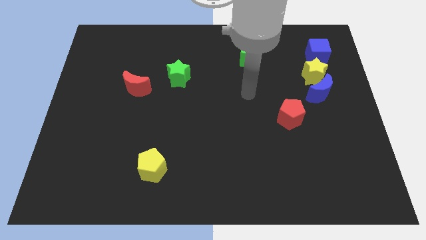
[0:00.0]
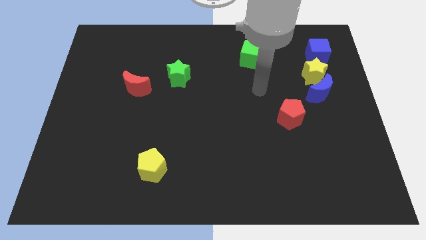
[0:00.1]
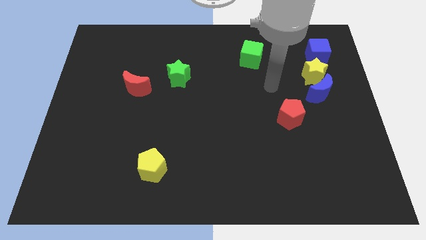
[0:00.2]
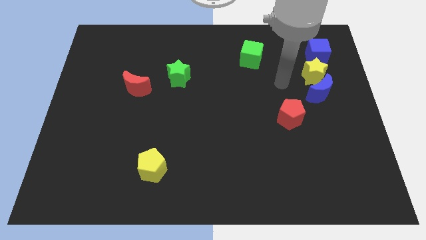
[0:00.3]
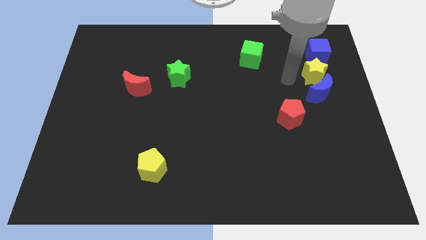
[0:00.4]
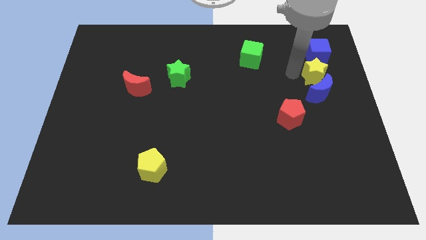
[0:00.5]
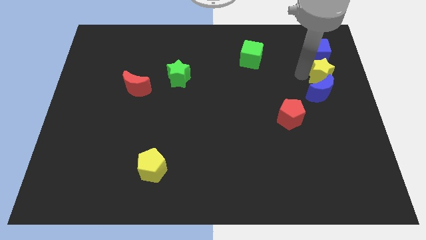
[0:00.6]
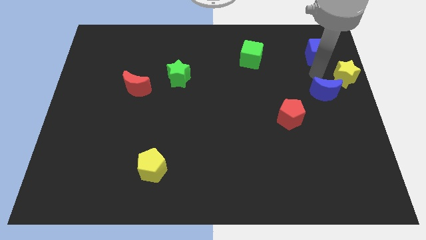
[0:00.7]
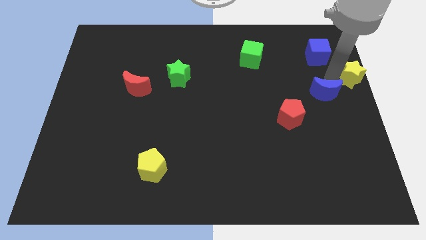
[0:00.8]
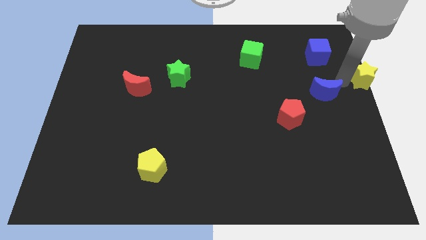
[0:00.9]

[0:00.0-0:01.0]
move the blue moon away from the yellow star

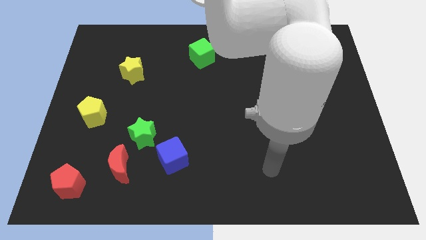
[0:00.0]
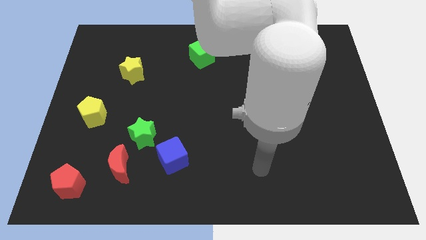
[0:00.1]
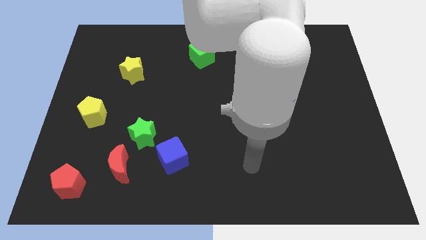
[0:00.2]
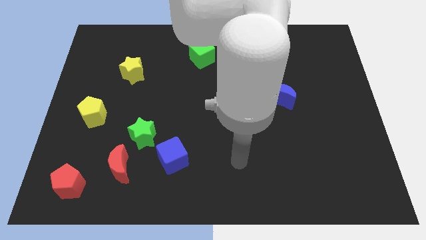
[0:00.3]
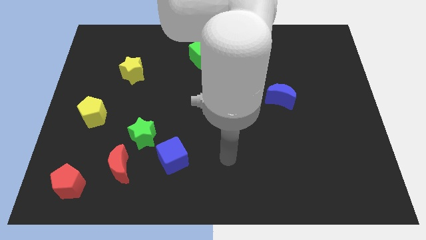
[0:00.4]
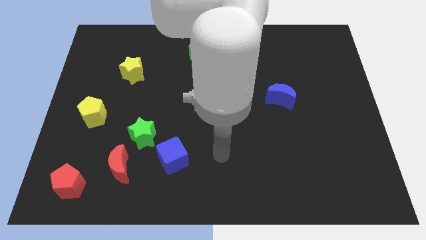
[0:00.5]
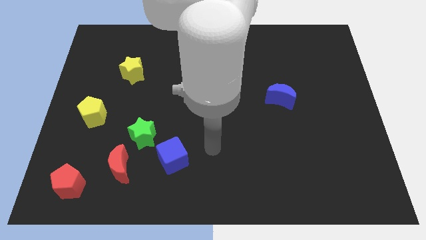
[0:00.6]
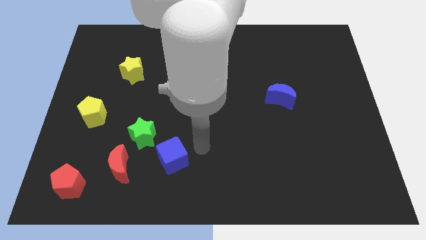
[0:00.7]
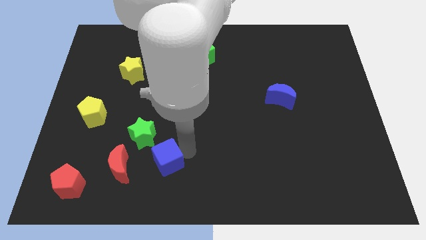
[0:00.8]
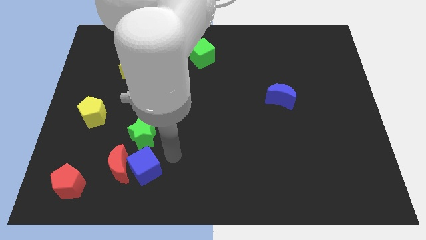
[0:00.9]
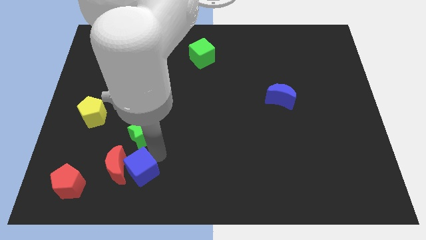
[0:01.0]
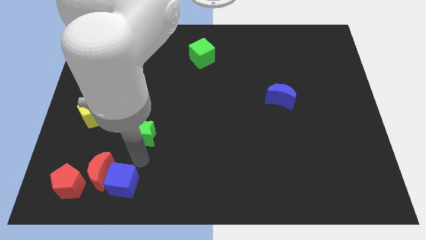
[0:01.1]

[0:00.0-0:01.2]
move the green star away from the red moon and blue cube

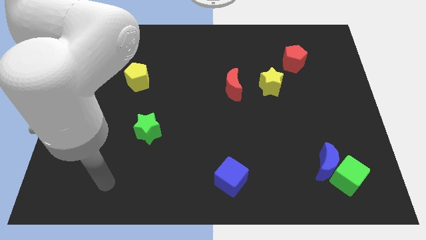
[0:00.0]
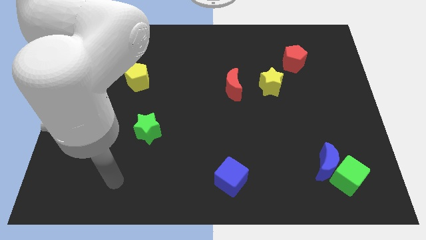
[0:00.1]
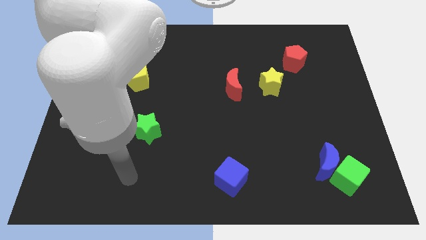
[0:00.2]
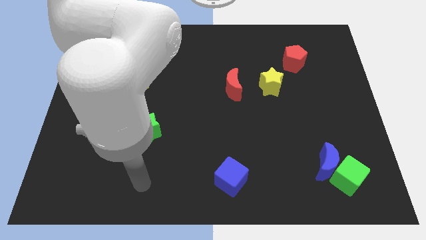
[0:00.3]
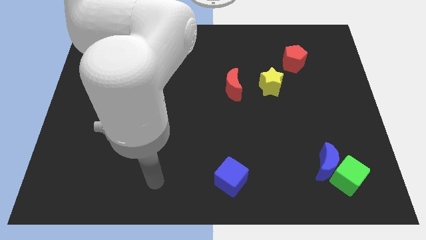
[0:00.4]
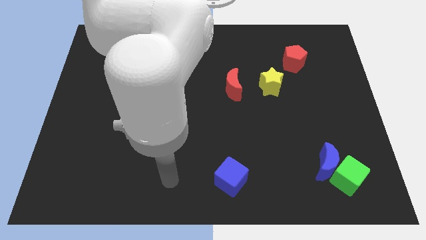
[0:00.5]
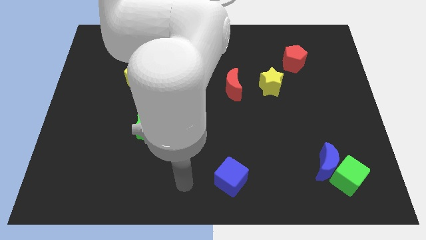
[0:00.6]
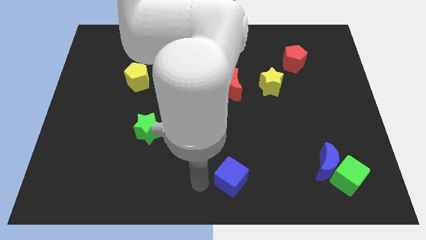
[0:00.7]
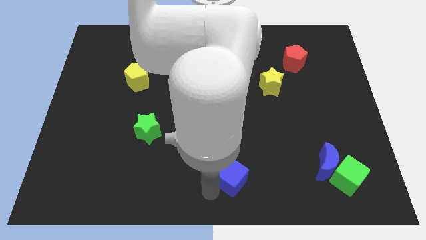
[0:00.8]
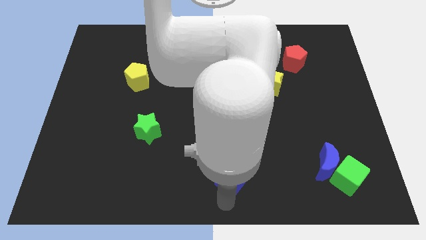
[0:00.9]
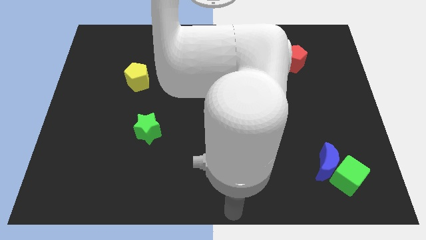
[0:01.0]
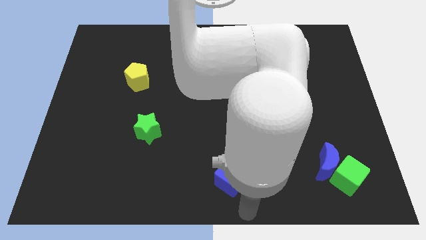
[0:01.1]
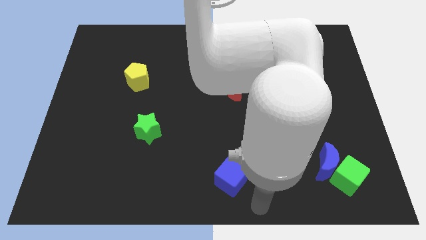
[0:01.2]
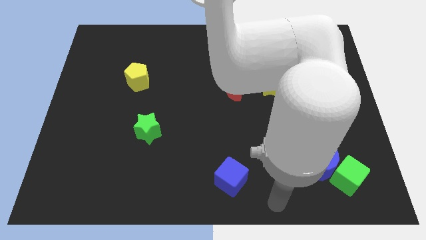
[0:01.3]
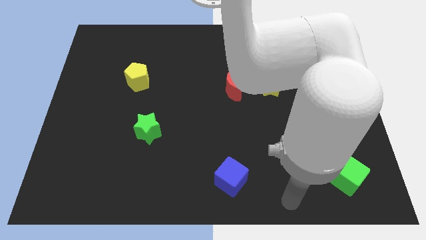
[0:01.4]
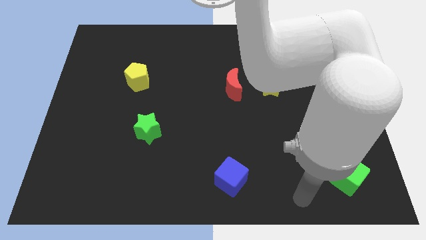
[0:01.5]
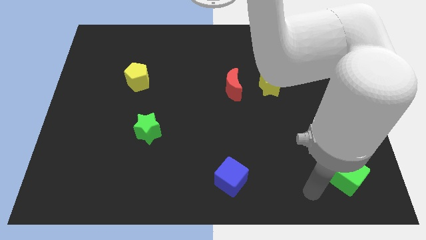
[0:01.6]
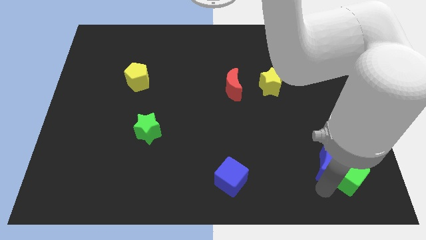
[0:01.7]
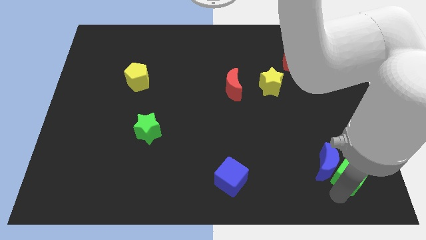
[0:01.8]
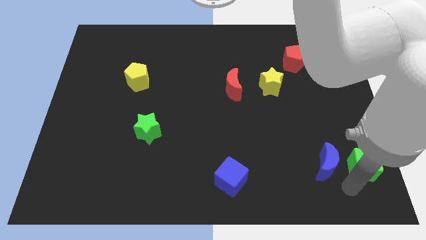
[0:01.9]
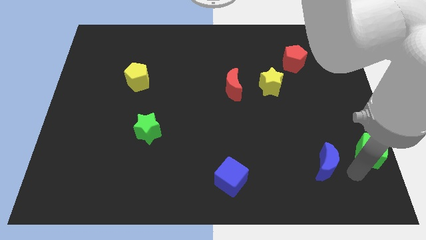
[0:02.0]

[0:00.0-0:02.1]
move the blue moon away from the green cube

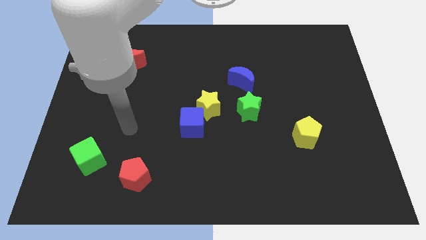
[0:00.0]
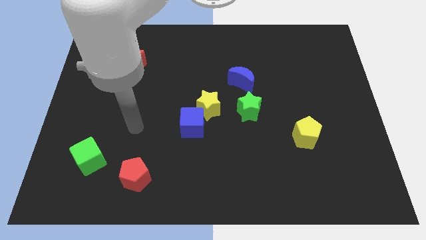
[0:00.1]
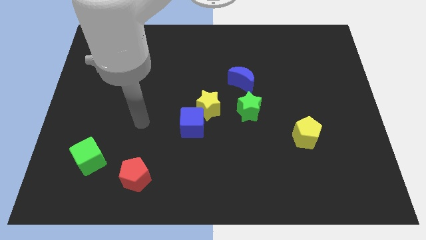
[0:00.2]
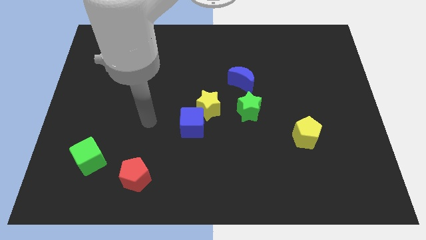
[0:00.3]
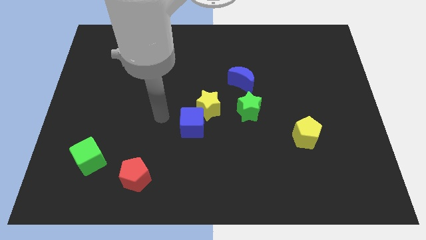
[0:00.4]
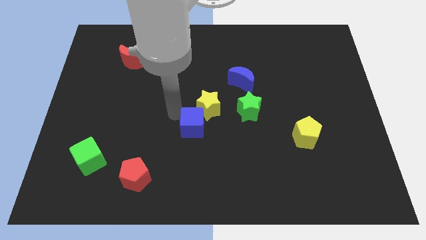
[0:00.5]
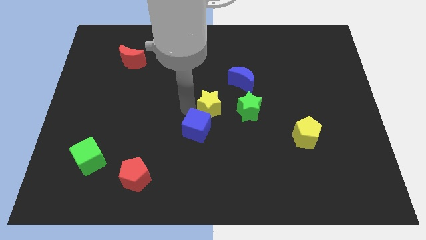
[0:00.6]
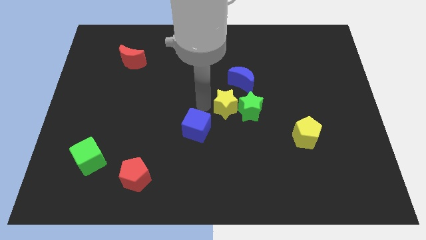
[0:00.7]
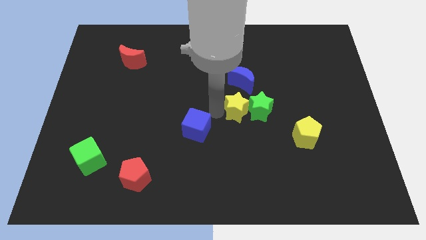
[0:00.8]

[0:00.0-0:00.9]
move the blue cube away from the yellow star

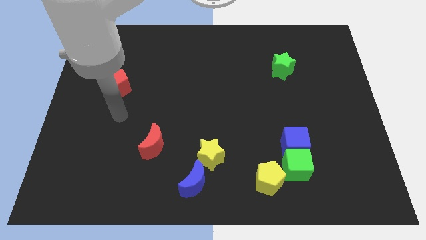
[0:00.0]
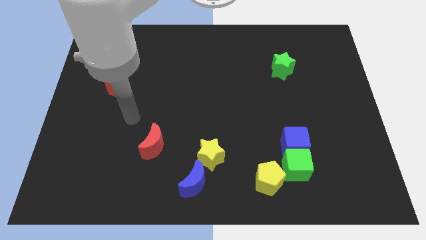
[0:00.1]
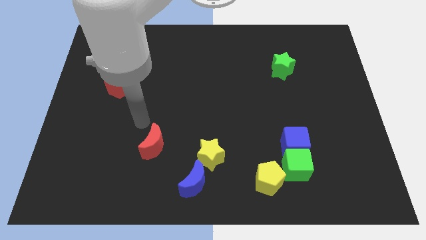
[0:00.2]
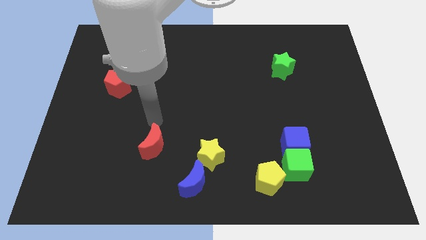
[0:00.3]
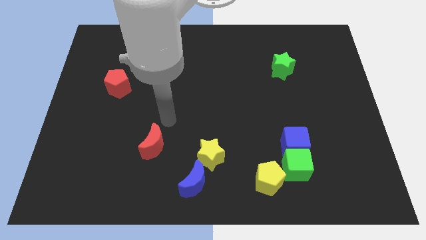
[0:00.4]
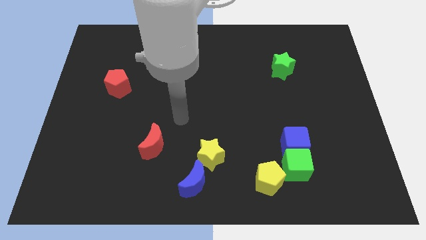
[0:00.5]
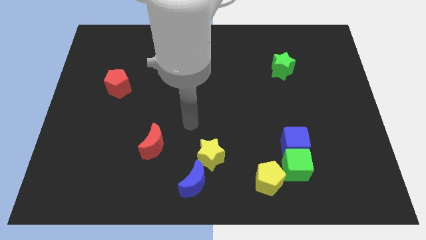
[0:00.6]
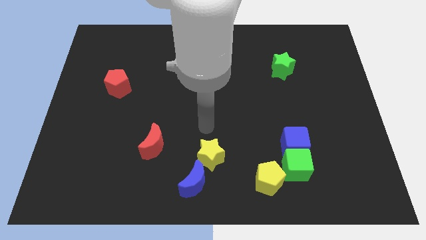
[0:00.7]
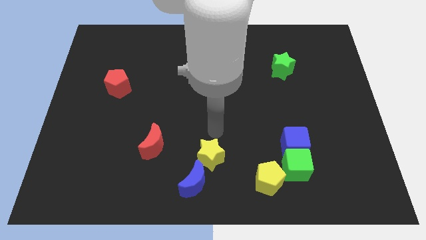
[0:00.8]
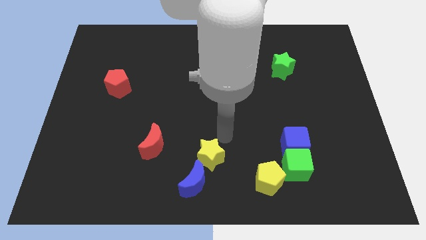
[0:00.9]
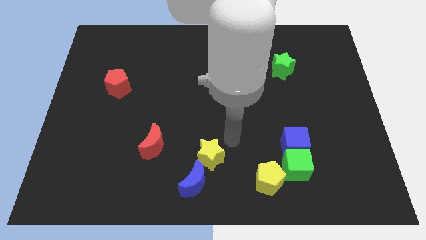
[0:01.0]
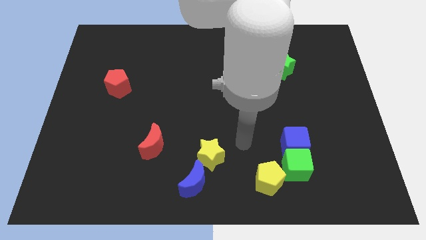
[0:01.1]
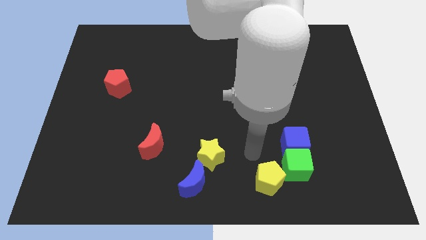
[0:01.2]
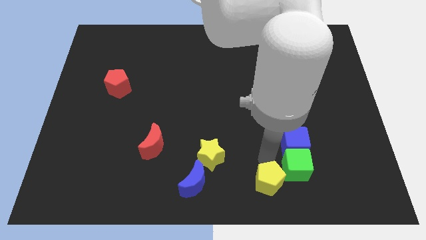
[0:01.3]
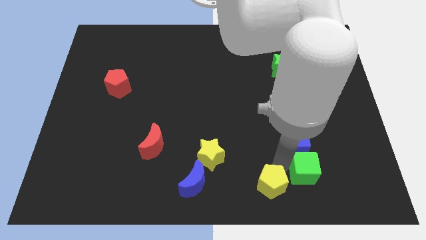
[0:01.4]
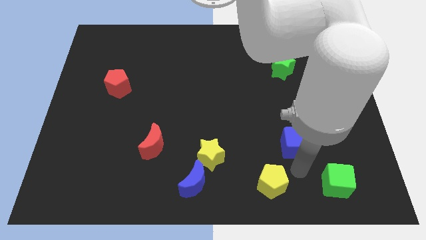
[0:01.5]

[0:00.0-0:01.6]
pull the blue cube apart from the green cube

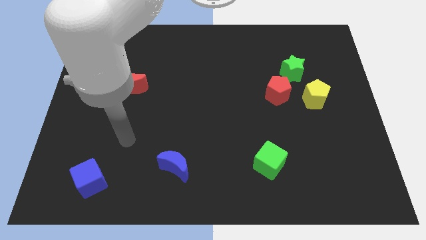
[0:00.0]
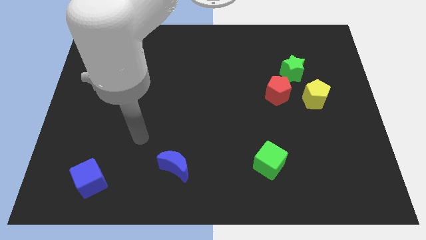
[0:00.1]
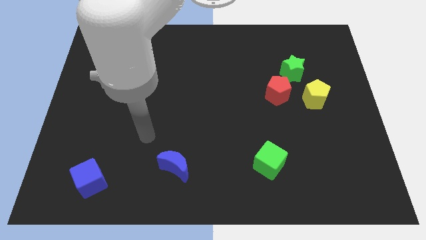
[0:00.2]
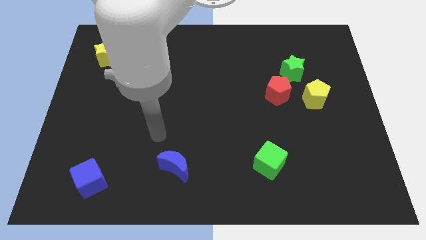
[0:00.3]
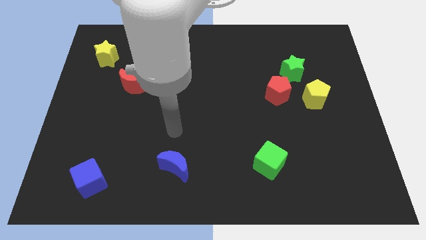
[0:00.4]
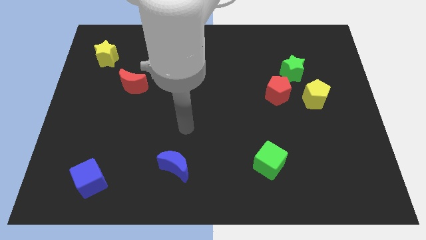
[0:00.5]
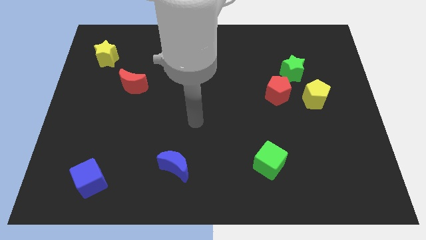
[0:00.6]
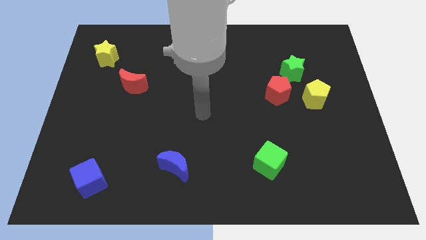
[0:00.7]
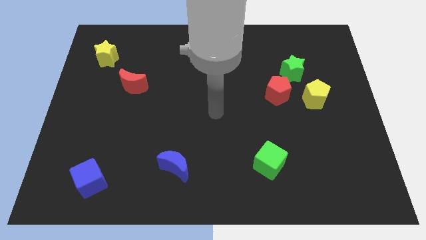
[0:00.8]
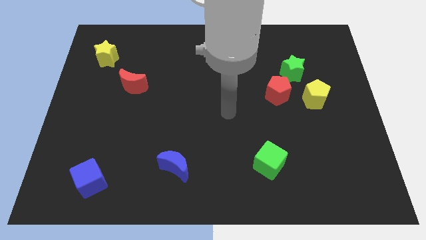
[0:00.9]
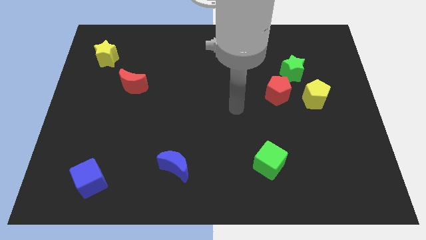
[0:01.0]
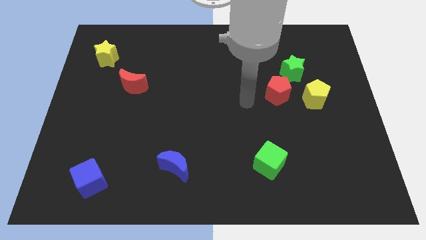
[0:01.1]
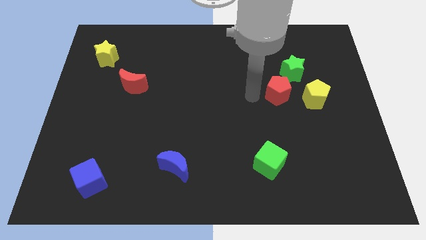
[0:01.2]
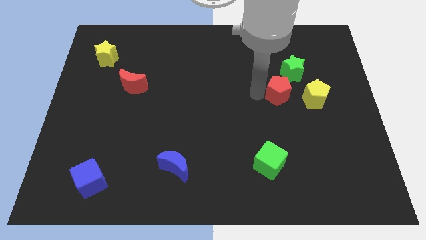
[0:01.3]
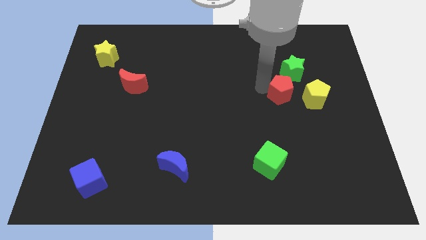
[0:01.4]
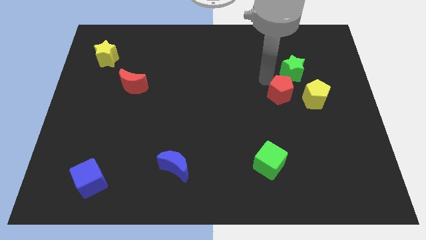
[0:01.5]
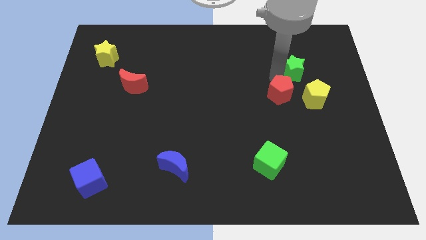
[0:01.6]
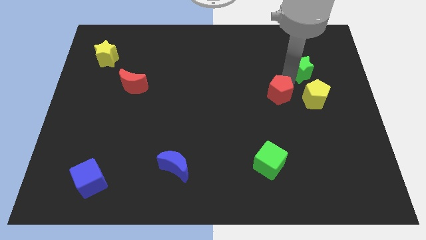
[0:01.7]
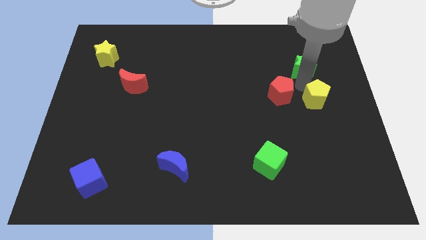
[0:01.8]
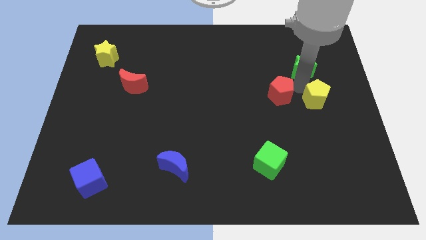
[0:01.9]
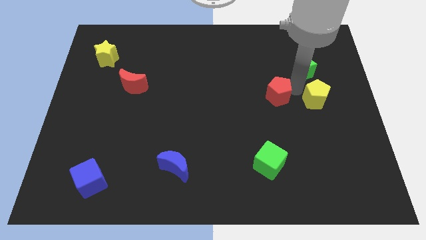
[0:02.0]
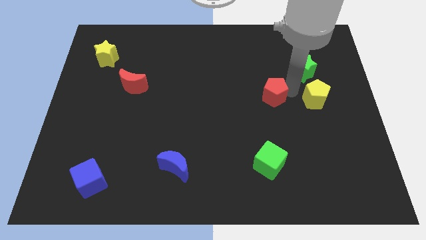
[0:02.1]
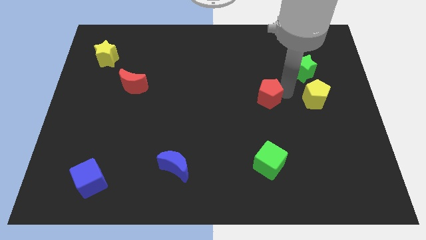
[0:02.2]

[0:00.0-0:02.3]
separate the red pentagon from the green star and yellow pentagon
